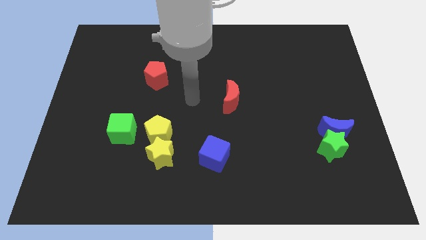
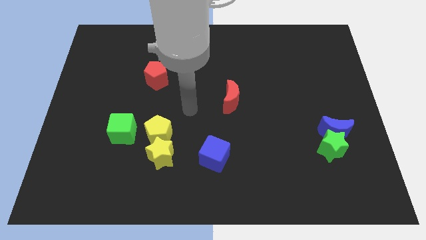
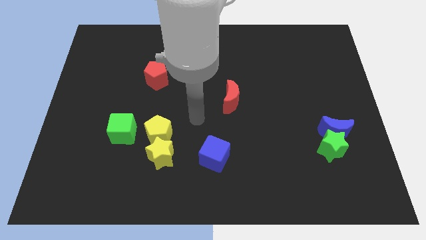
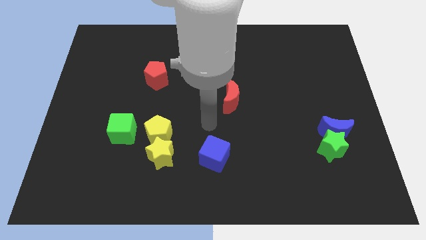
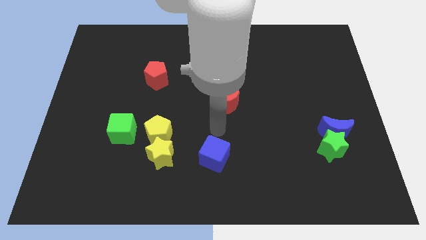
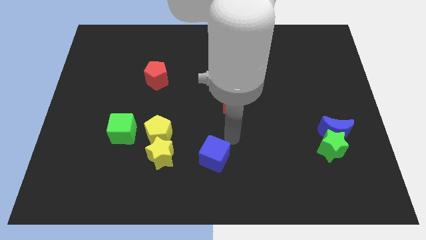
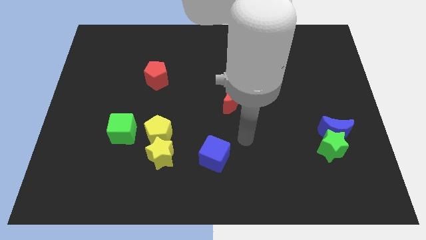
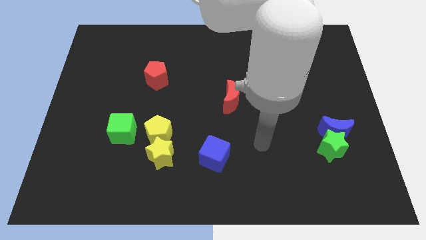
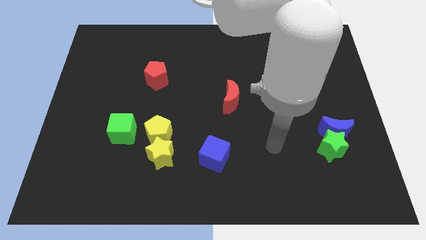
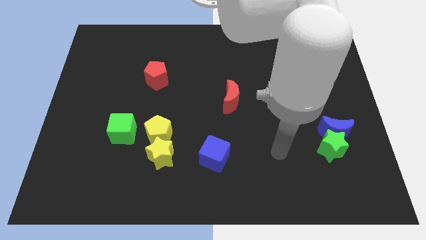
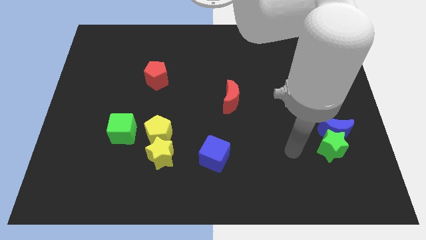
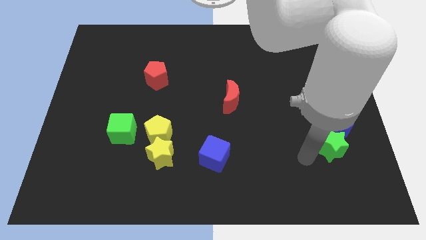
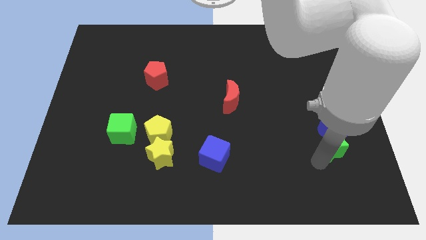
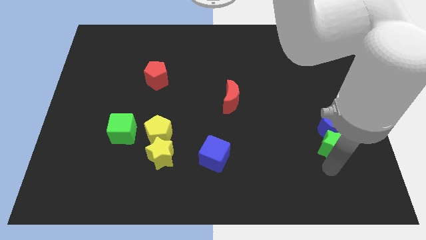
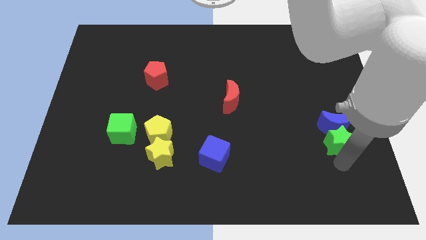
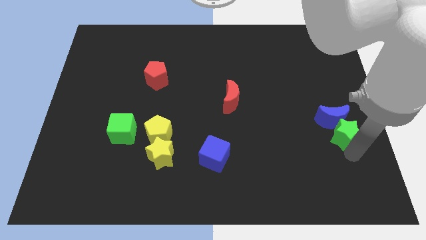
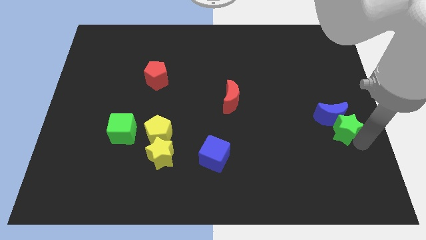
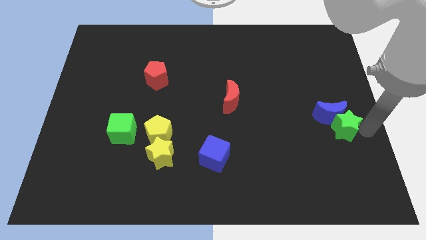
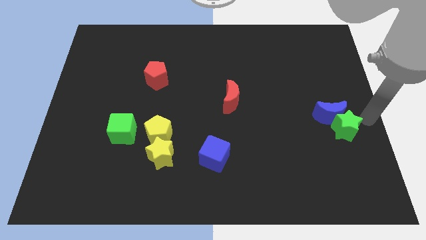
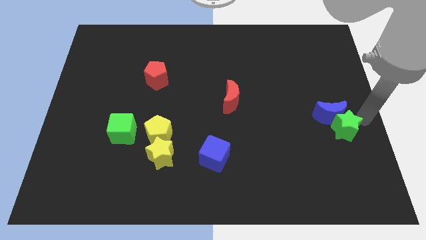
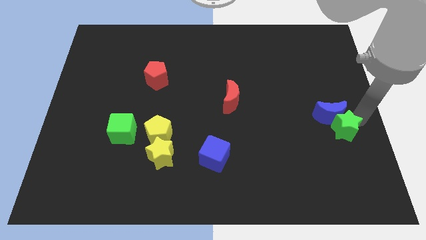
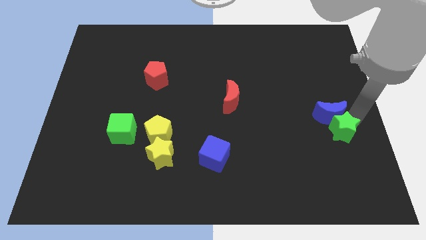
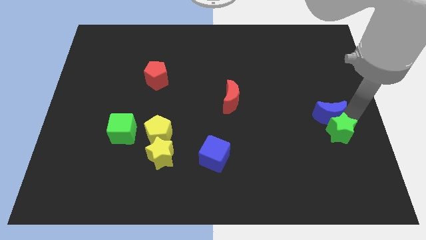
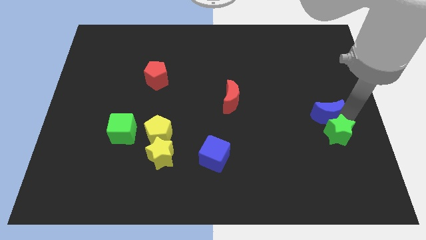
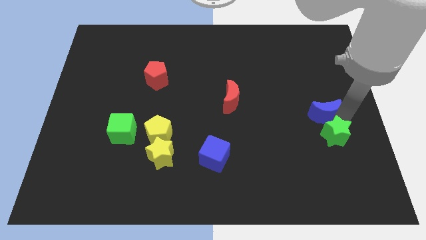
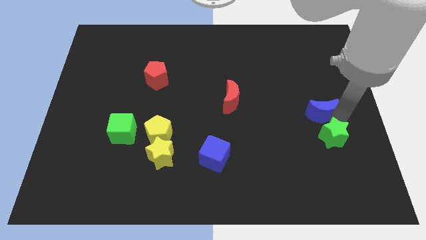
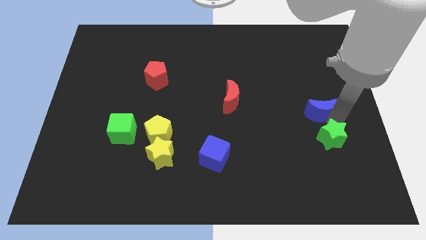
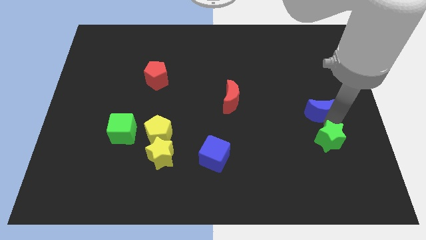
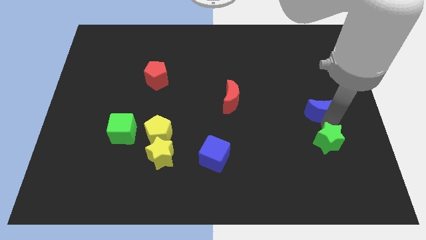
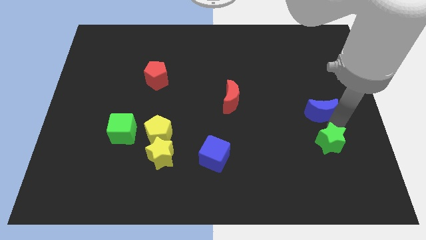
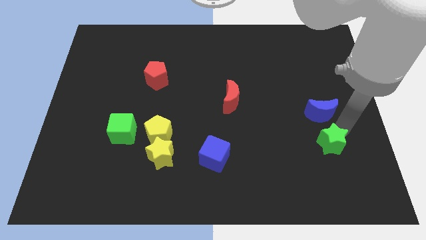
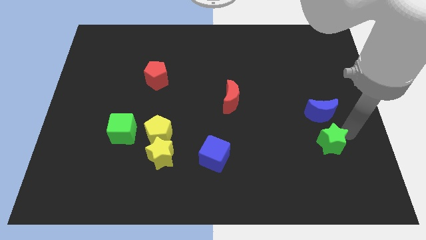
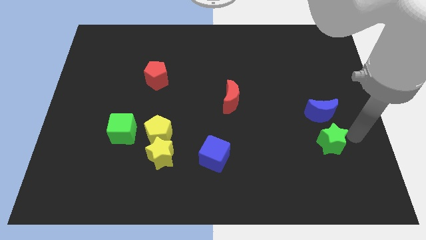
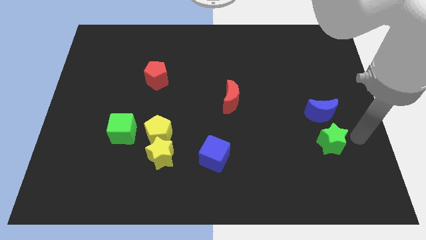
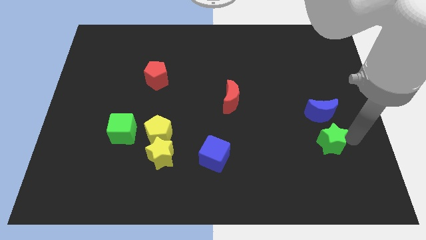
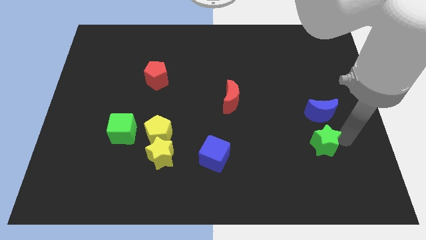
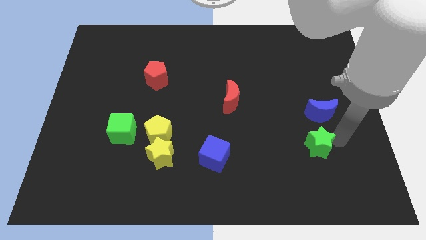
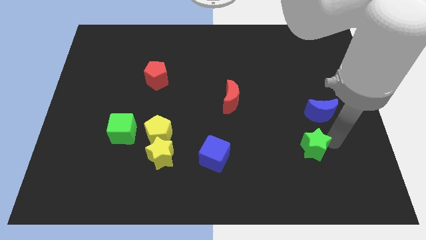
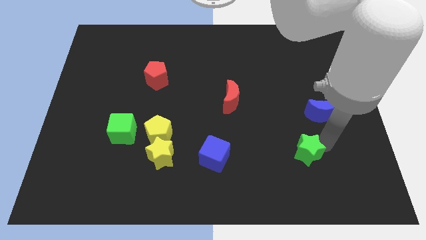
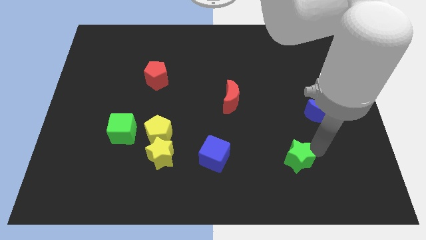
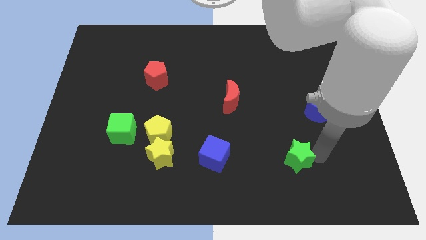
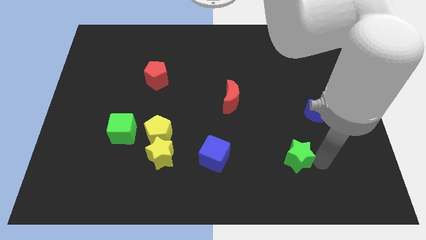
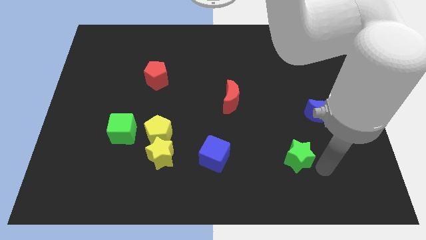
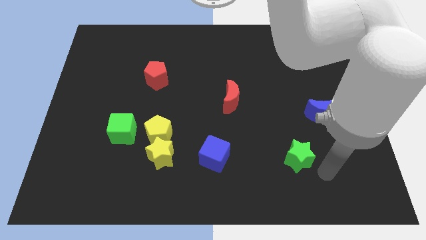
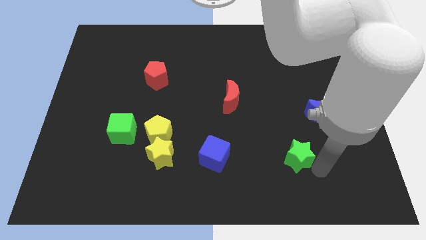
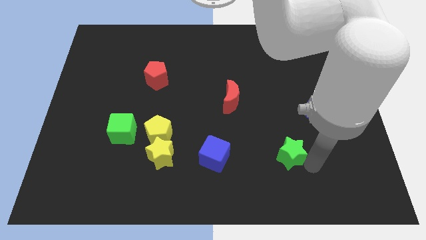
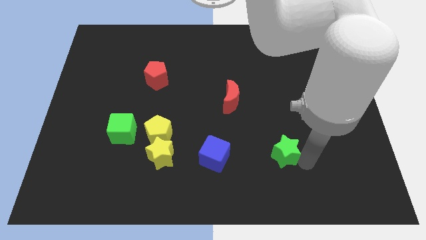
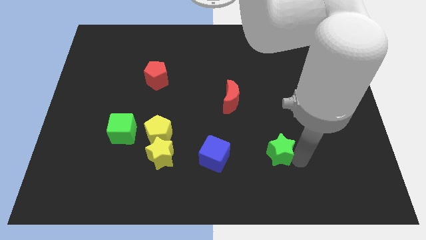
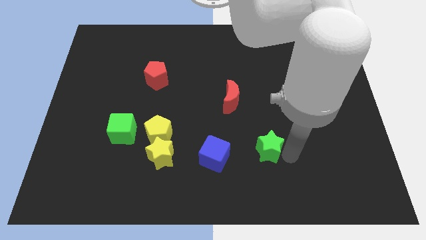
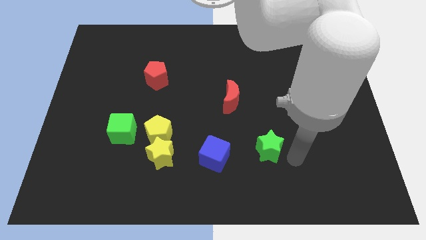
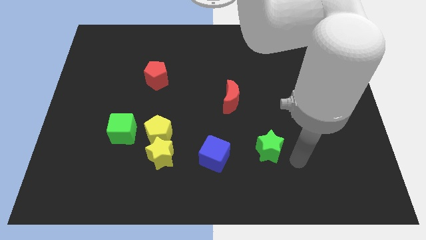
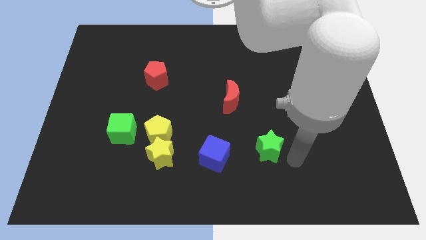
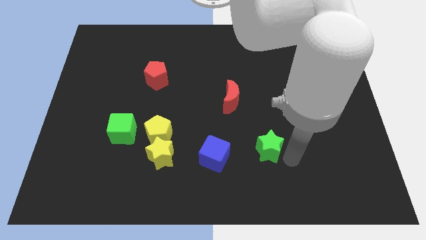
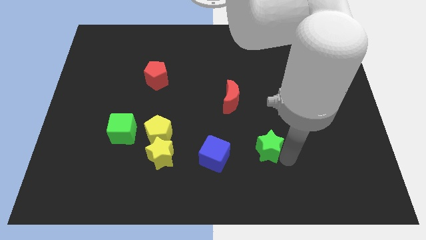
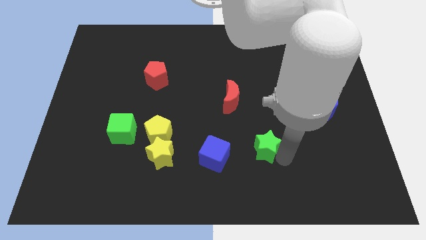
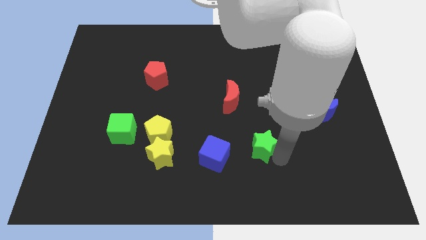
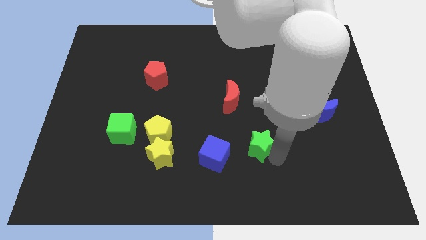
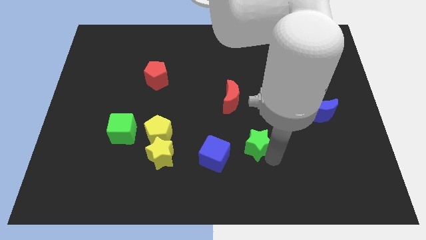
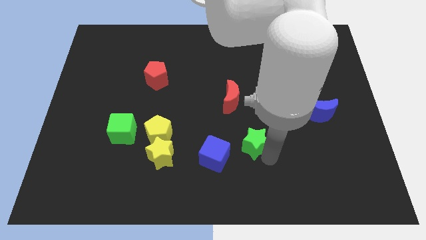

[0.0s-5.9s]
slide the green star to the top right side of the blue cube

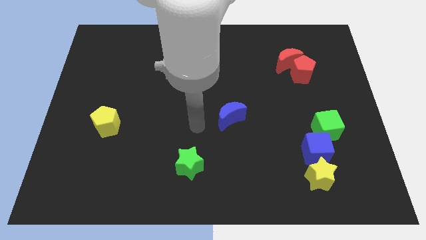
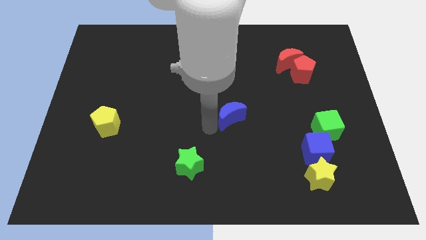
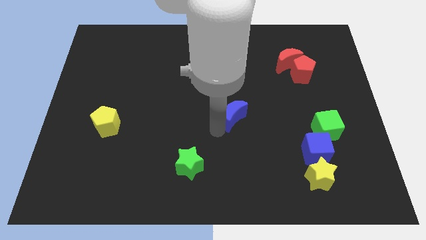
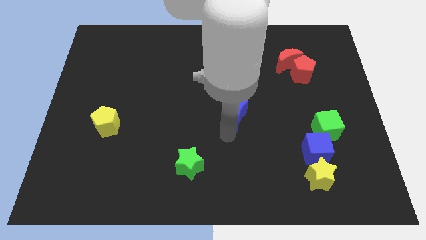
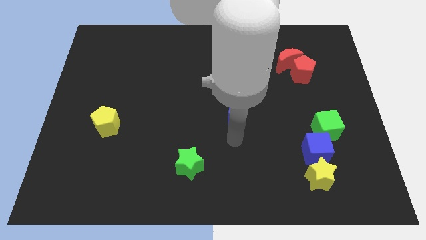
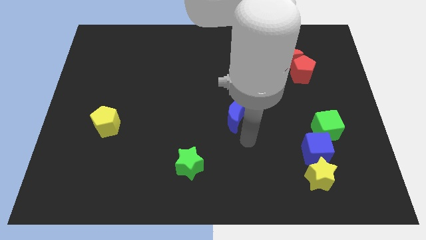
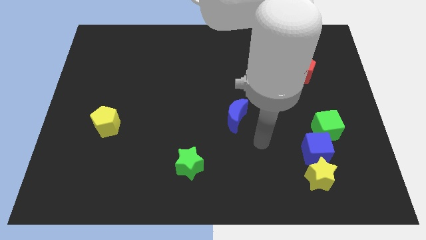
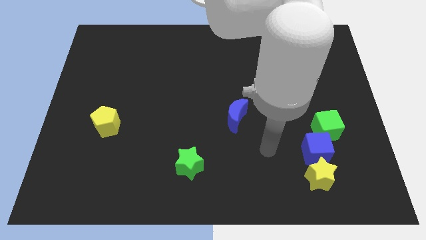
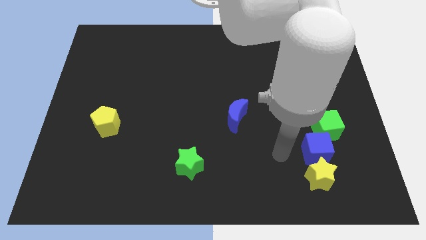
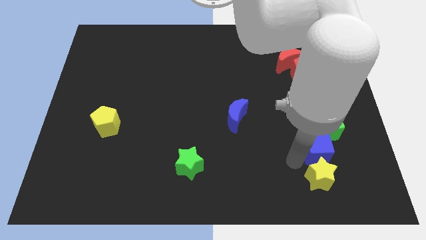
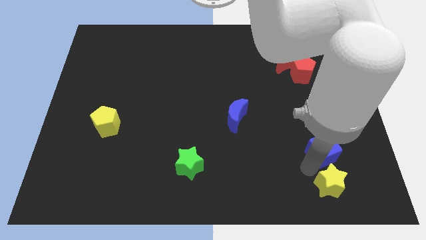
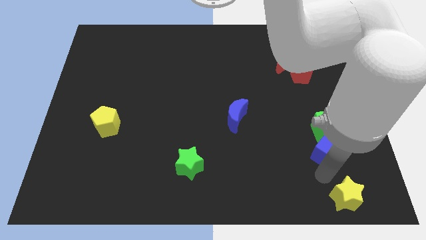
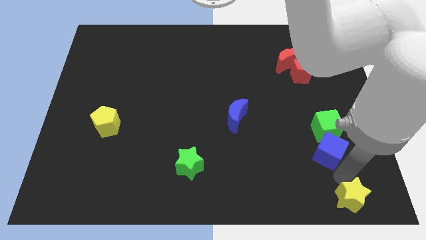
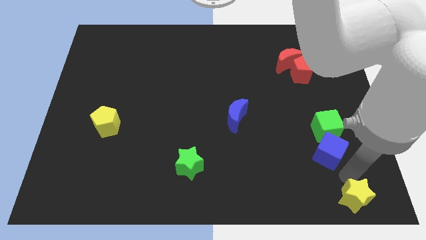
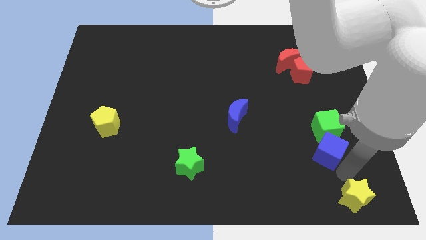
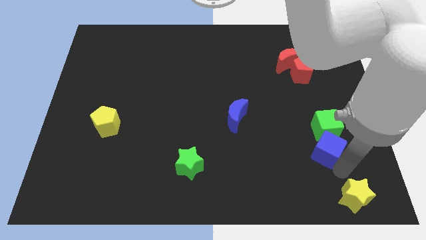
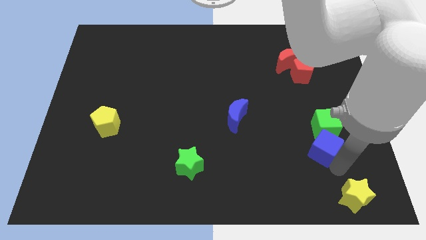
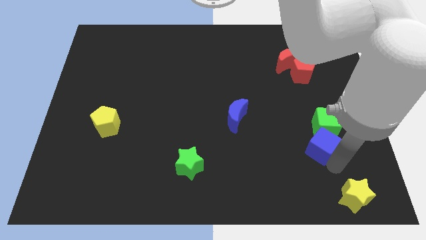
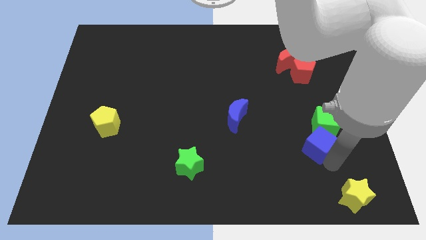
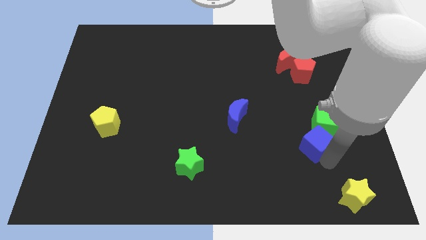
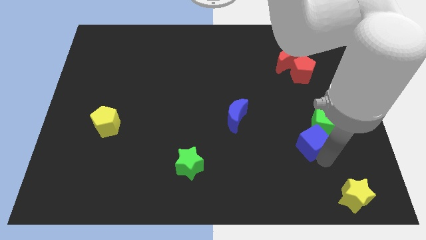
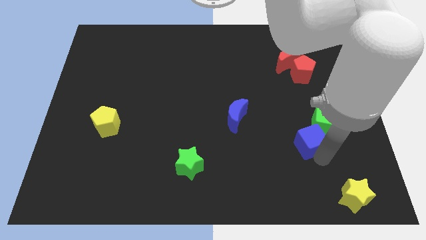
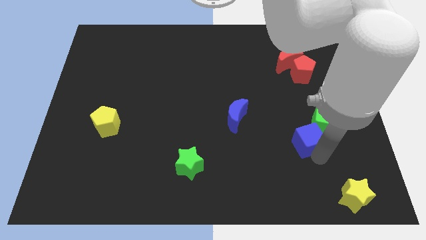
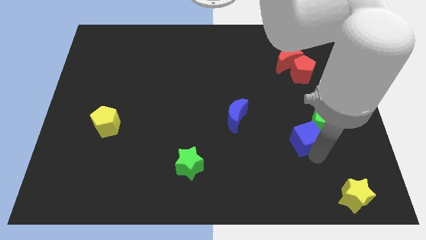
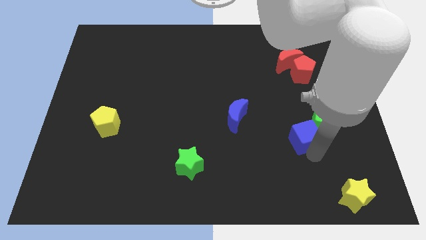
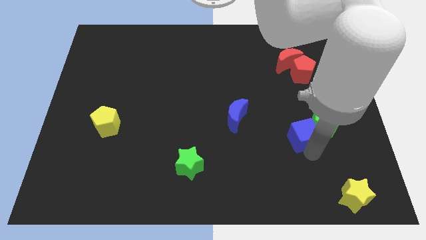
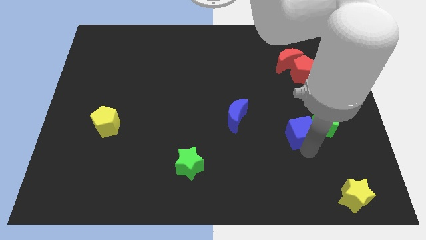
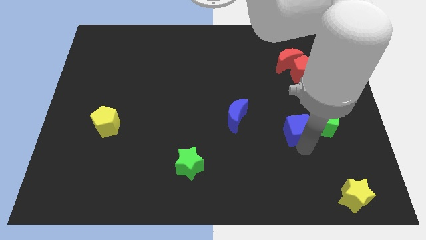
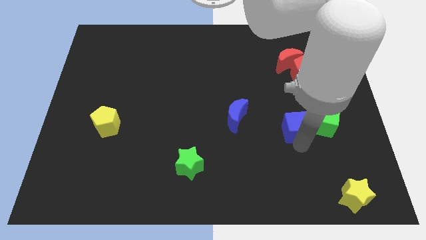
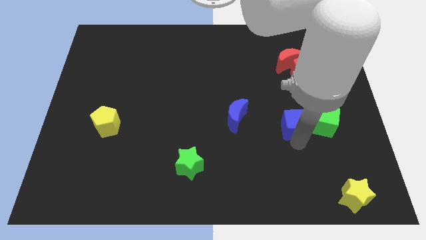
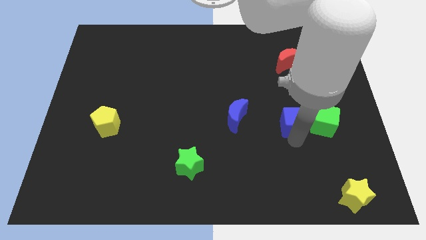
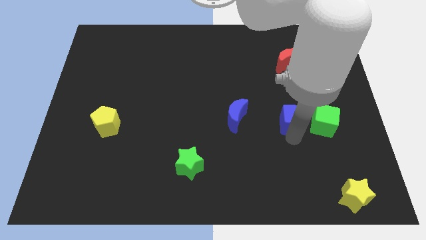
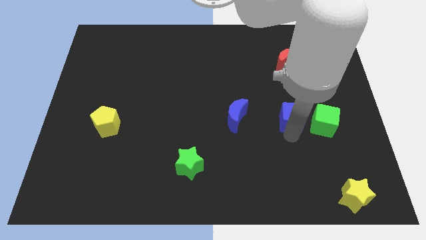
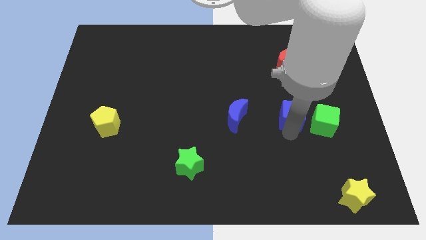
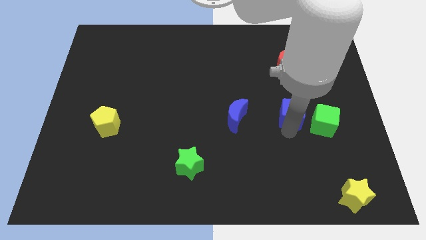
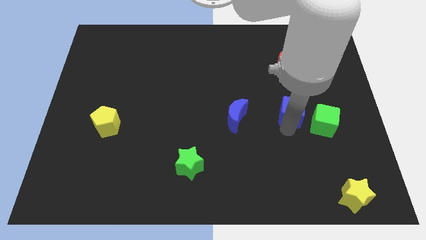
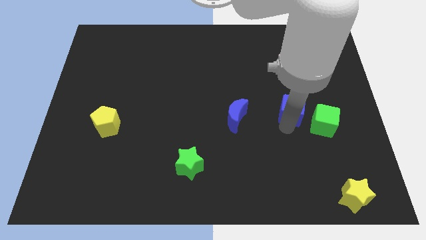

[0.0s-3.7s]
put the blue cube to the bottom of the red moon
